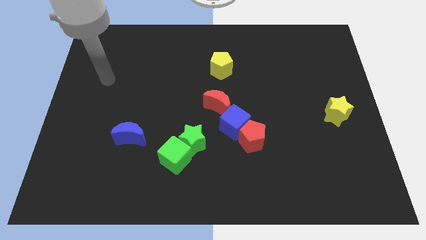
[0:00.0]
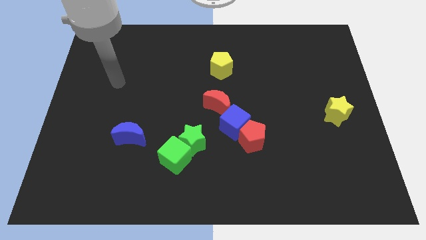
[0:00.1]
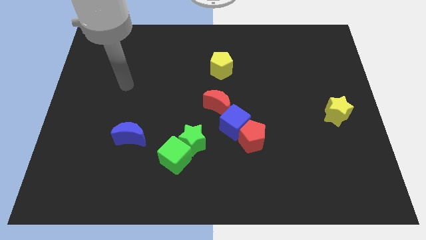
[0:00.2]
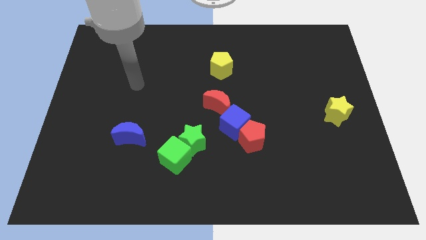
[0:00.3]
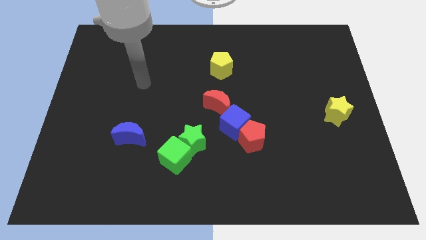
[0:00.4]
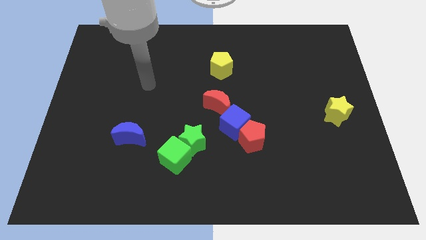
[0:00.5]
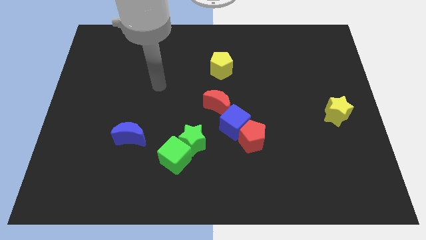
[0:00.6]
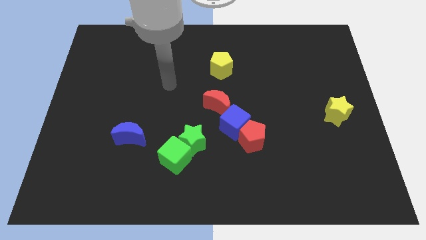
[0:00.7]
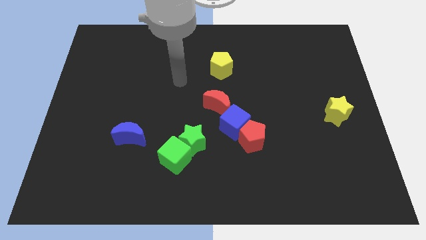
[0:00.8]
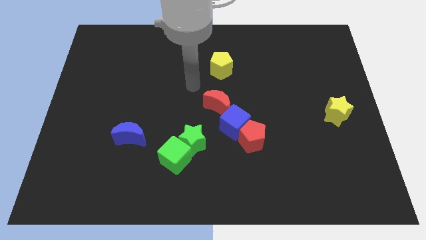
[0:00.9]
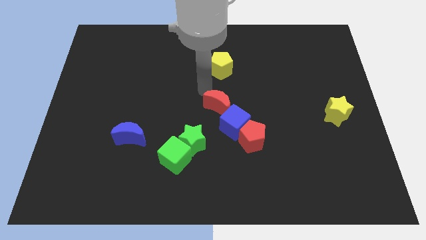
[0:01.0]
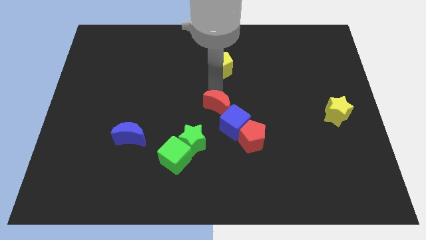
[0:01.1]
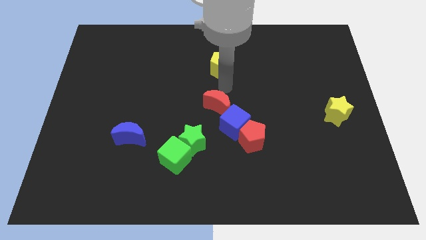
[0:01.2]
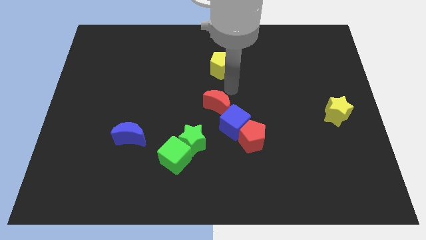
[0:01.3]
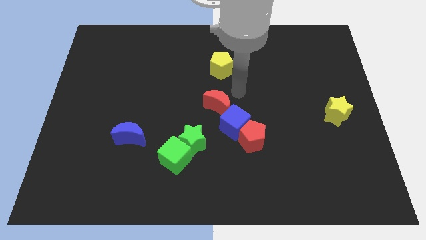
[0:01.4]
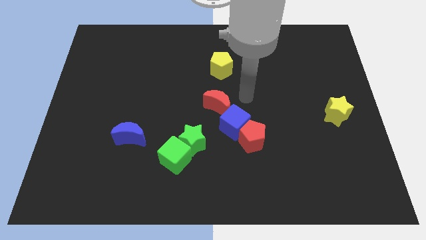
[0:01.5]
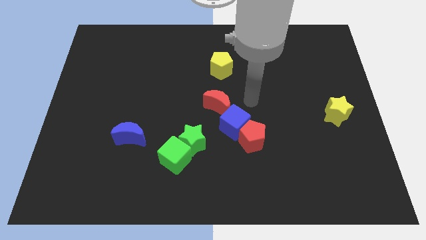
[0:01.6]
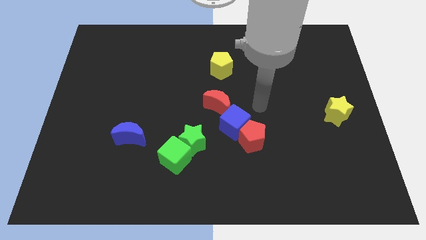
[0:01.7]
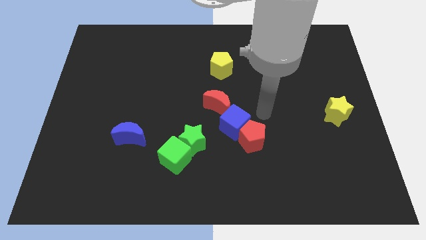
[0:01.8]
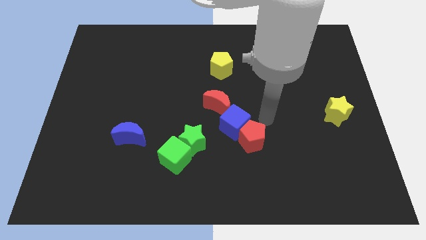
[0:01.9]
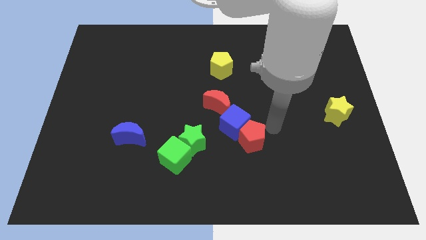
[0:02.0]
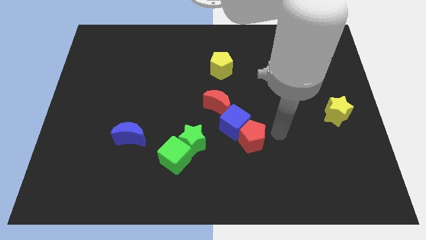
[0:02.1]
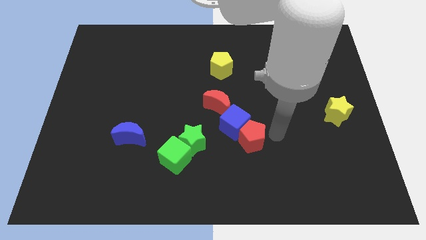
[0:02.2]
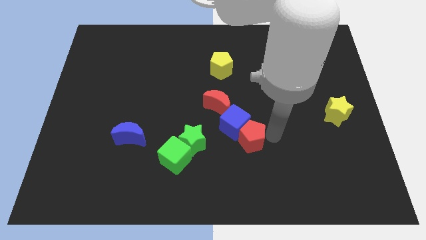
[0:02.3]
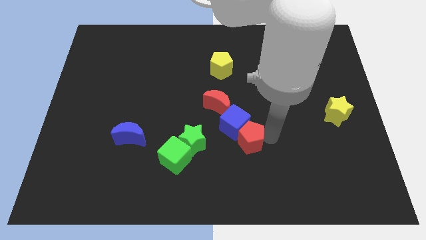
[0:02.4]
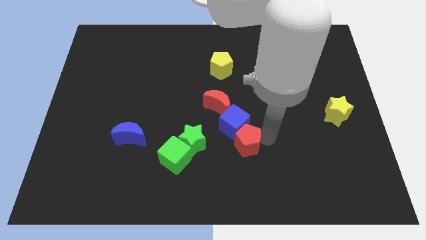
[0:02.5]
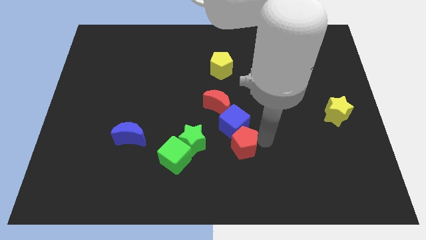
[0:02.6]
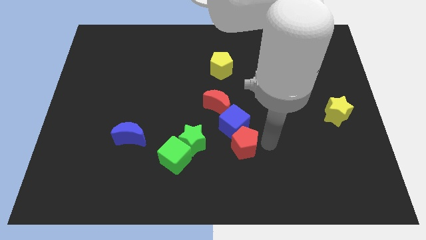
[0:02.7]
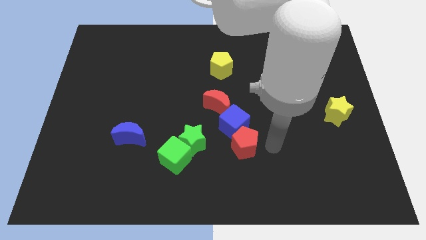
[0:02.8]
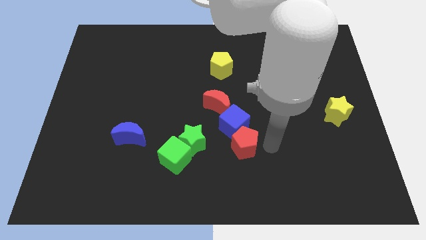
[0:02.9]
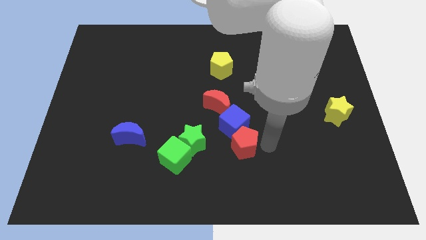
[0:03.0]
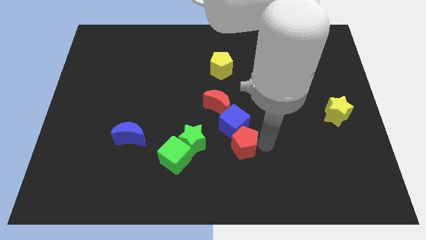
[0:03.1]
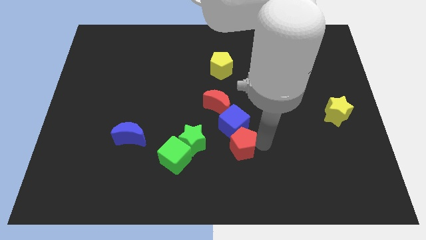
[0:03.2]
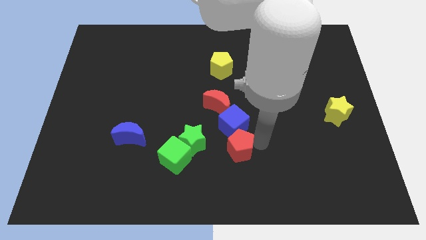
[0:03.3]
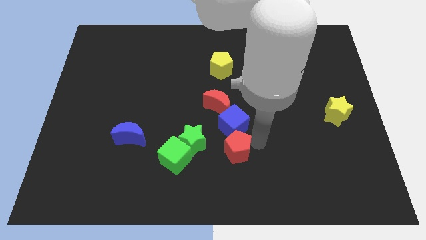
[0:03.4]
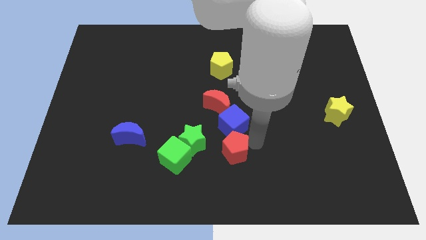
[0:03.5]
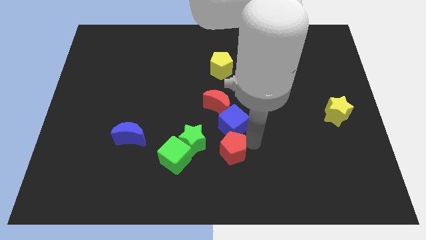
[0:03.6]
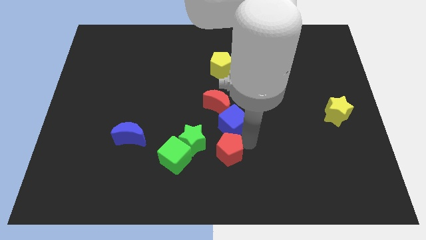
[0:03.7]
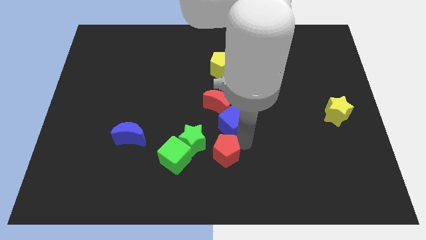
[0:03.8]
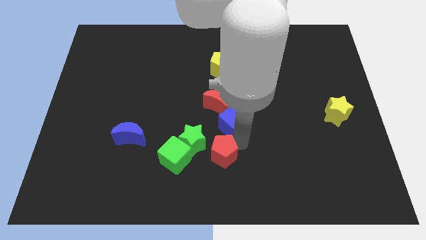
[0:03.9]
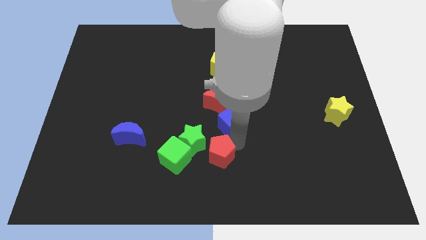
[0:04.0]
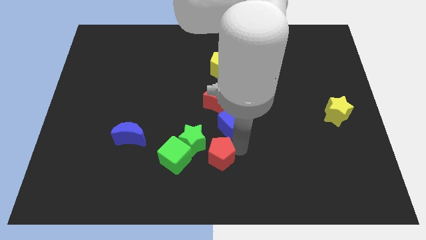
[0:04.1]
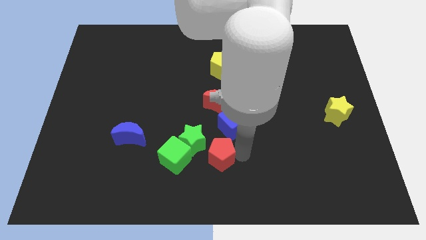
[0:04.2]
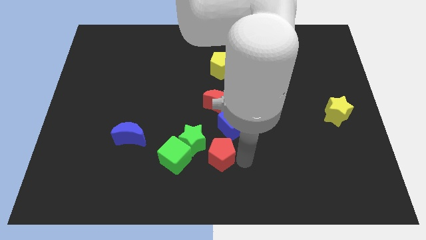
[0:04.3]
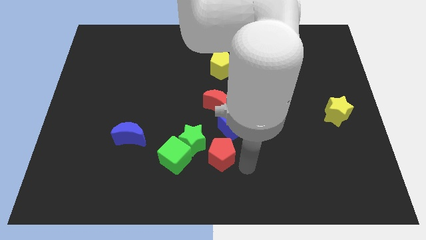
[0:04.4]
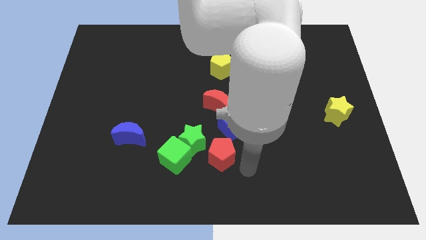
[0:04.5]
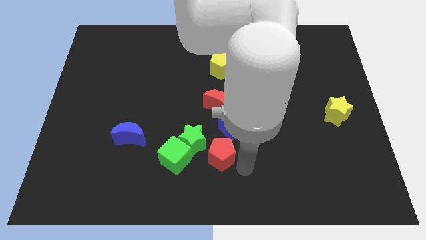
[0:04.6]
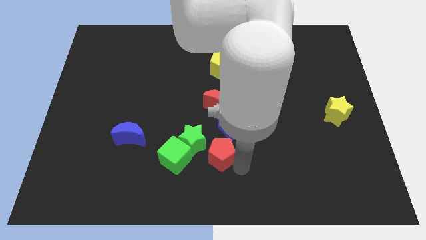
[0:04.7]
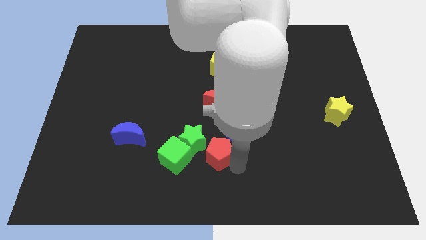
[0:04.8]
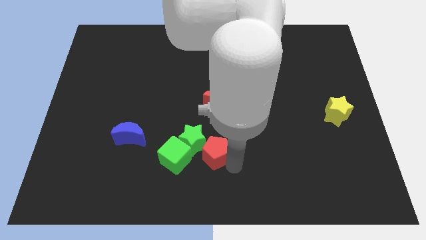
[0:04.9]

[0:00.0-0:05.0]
put the red pentagon next to the green star

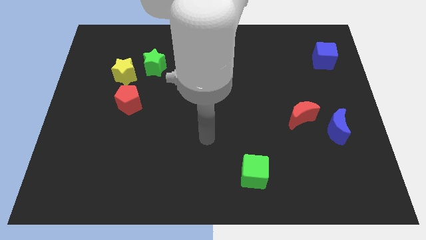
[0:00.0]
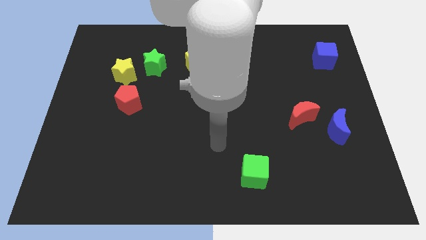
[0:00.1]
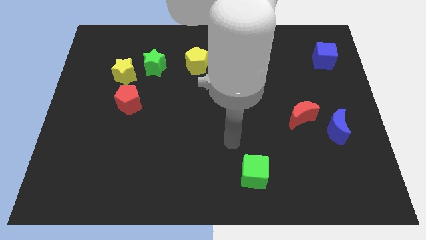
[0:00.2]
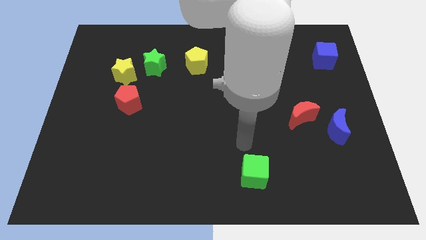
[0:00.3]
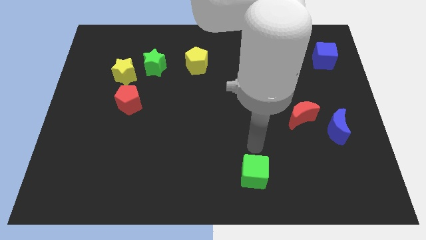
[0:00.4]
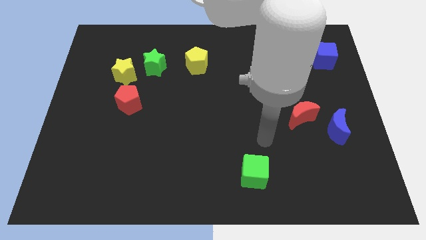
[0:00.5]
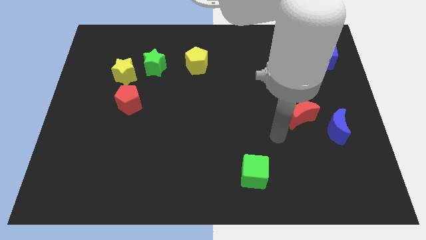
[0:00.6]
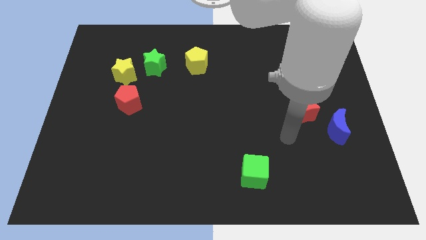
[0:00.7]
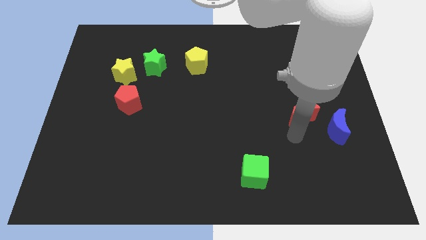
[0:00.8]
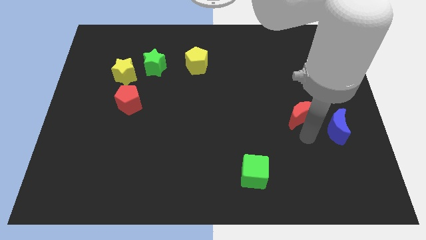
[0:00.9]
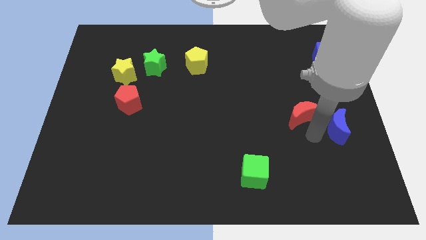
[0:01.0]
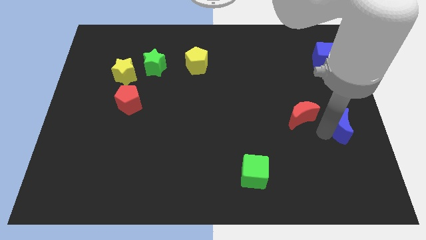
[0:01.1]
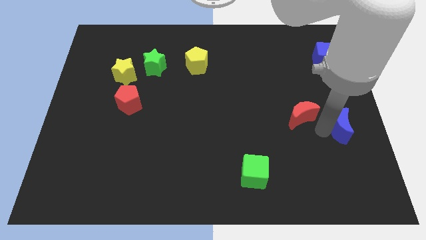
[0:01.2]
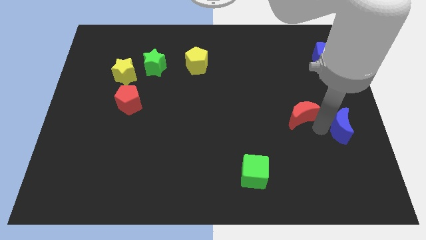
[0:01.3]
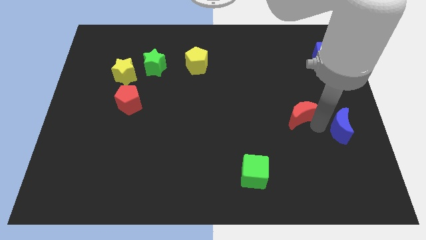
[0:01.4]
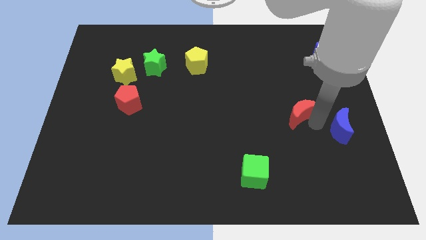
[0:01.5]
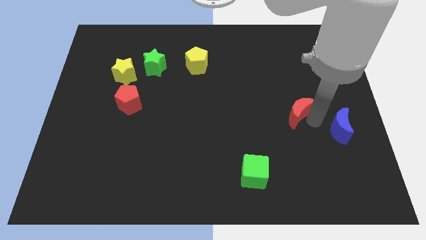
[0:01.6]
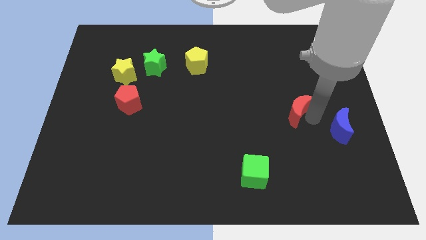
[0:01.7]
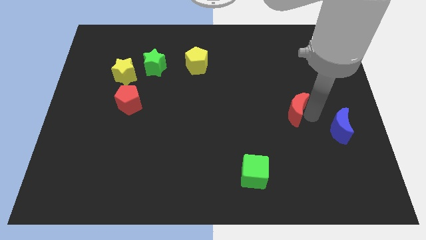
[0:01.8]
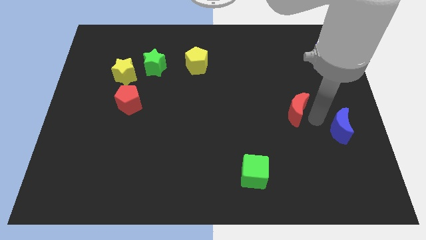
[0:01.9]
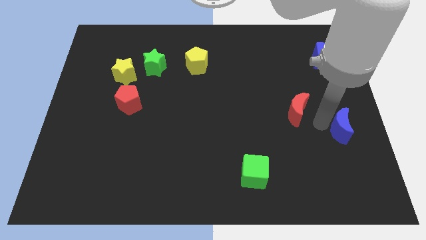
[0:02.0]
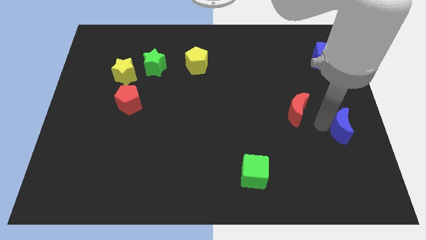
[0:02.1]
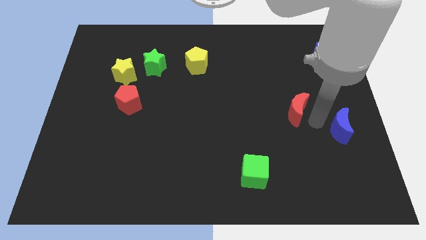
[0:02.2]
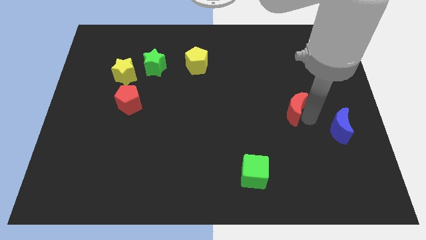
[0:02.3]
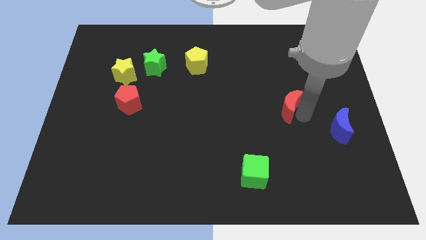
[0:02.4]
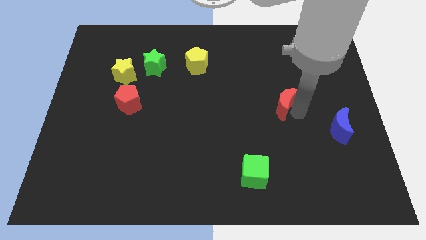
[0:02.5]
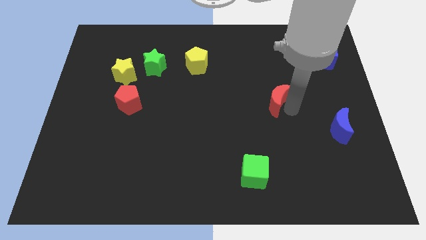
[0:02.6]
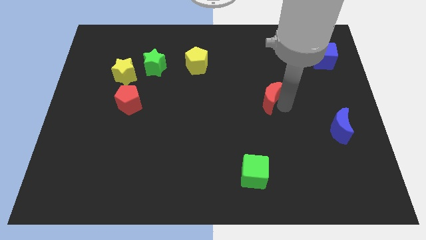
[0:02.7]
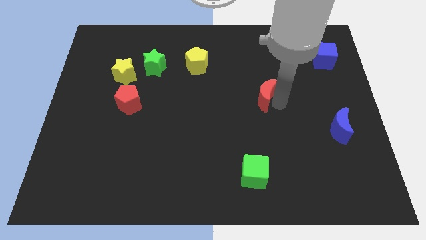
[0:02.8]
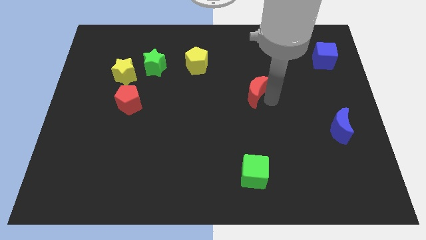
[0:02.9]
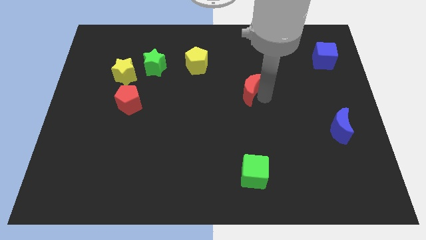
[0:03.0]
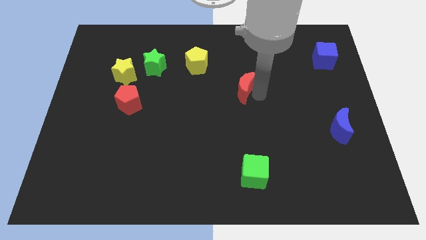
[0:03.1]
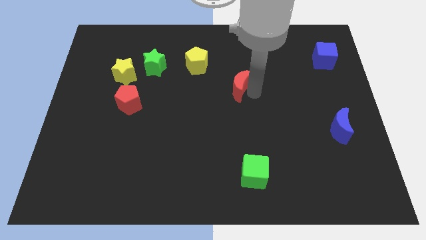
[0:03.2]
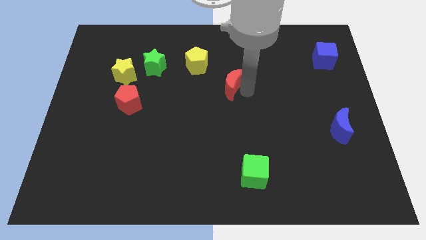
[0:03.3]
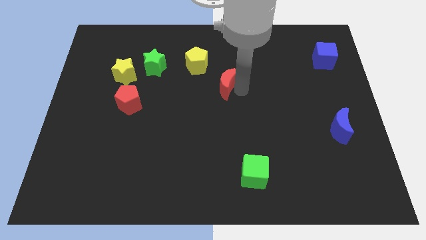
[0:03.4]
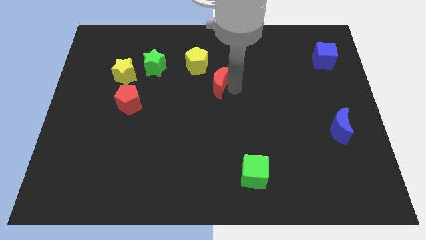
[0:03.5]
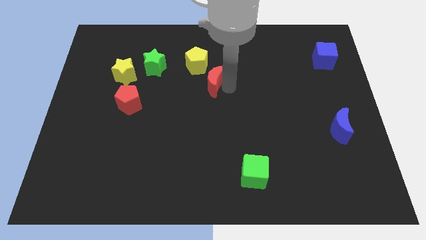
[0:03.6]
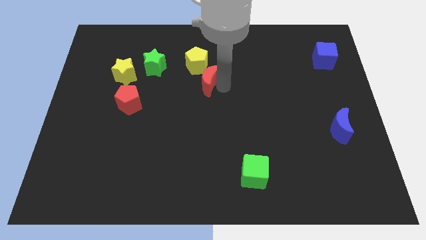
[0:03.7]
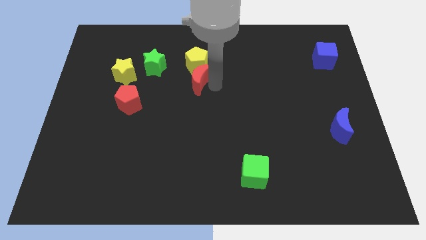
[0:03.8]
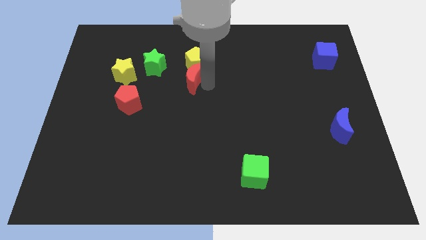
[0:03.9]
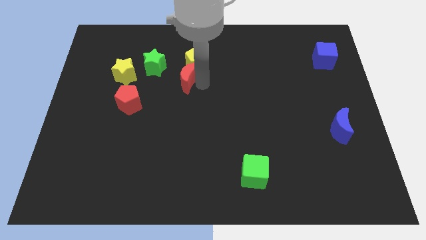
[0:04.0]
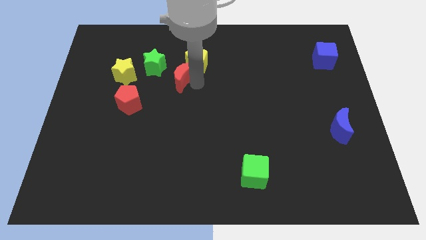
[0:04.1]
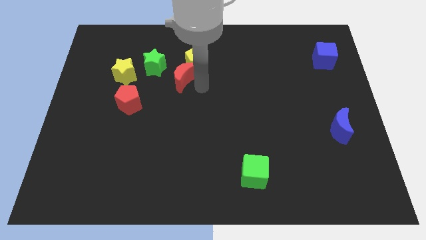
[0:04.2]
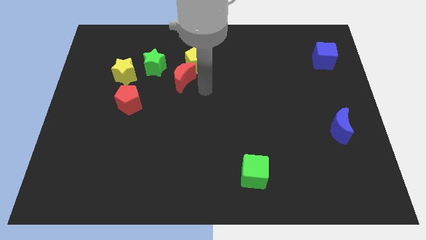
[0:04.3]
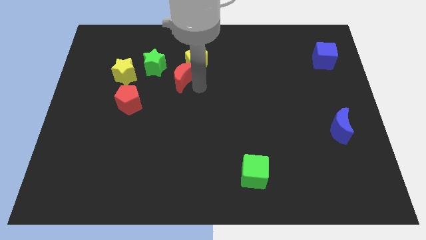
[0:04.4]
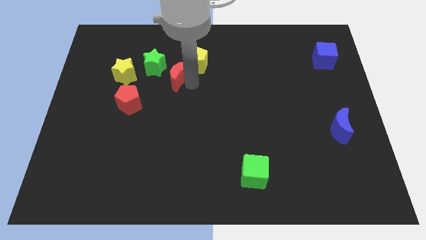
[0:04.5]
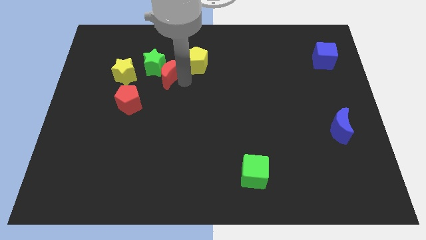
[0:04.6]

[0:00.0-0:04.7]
move the red moon next to the green star
